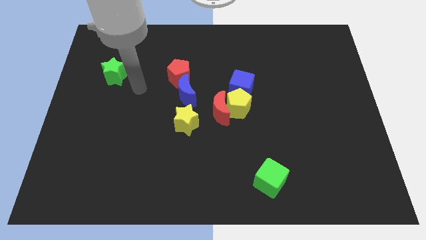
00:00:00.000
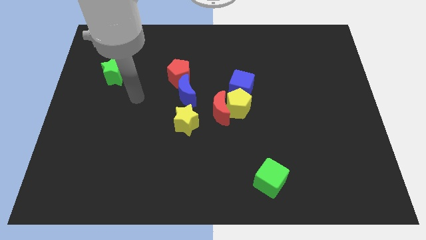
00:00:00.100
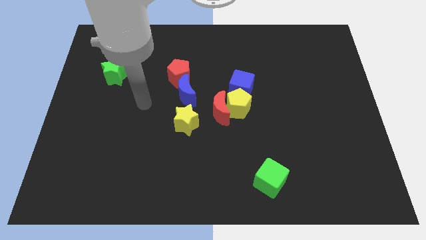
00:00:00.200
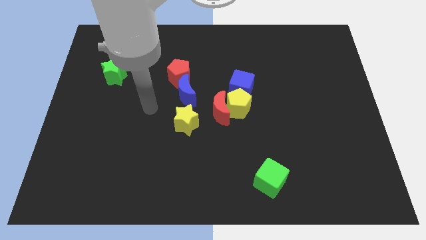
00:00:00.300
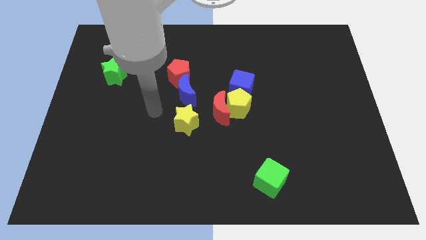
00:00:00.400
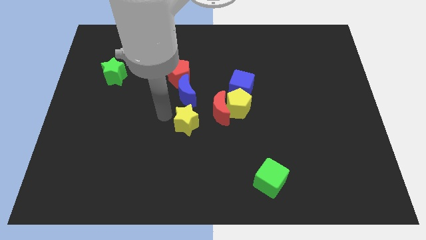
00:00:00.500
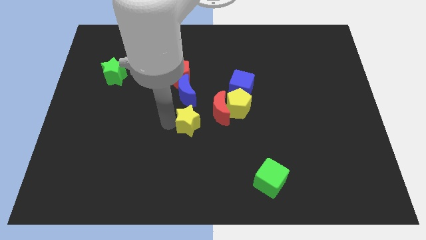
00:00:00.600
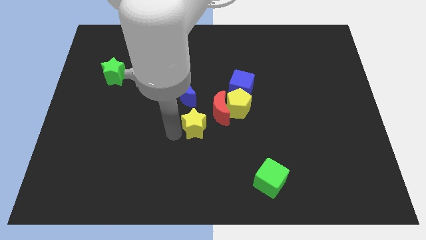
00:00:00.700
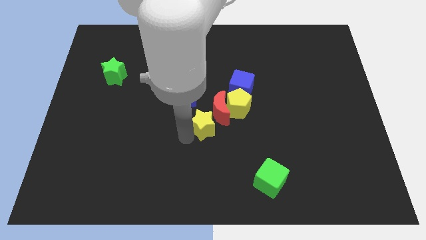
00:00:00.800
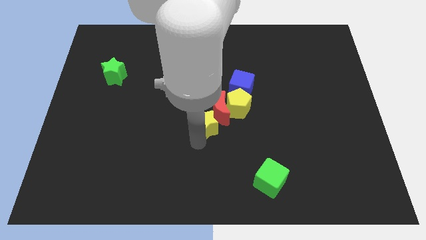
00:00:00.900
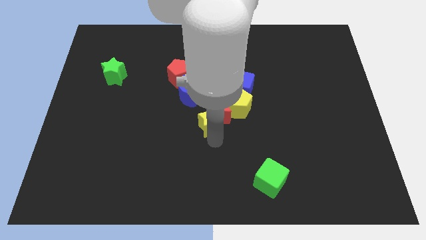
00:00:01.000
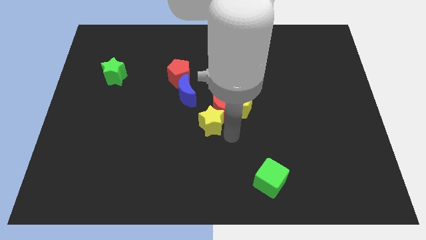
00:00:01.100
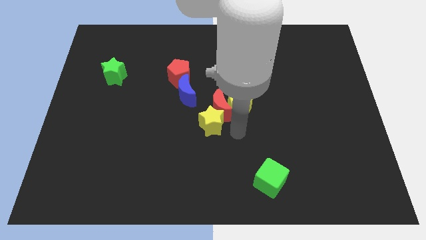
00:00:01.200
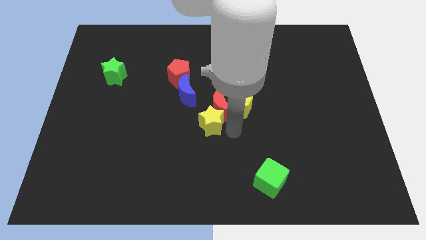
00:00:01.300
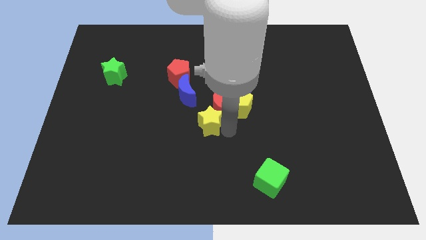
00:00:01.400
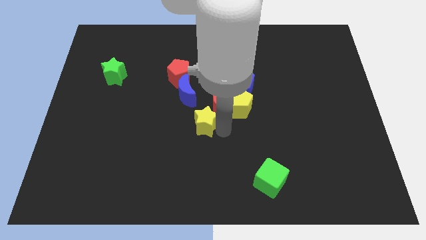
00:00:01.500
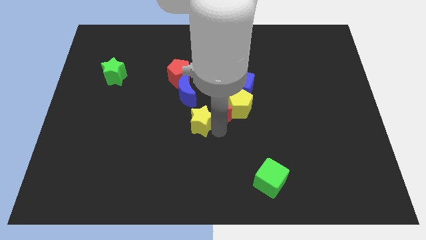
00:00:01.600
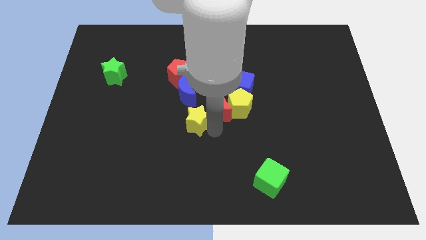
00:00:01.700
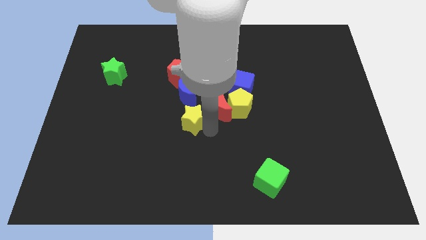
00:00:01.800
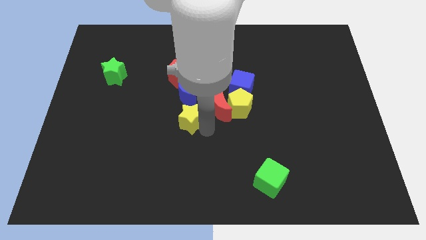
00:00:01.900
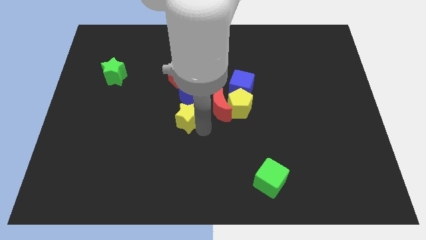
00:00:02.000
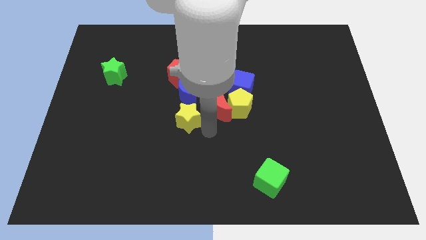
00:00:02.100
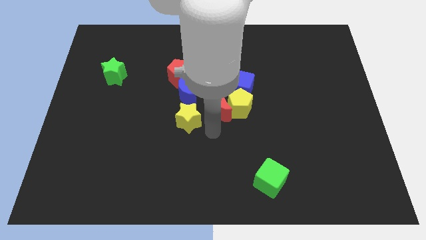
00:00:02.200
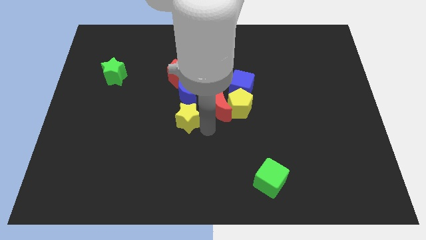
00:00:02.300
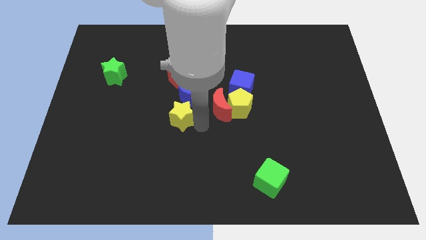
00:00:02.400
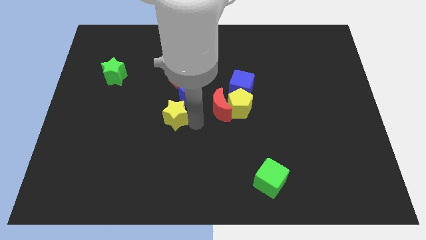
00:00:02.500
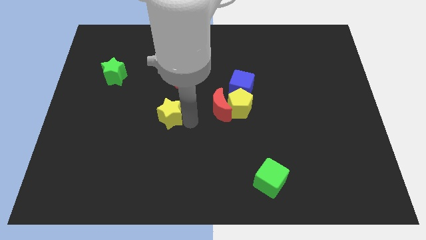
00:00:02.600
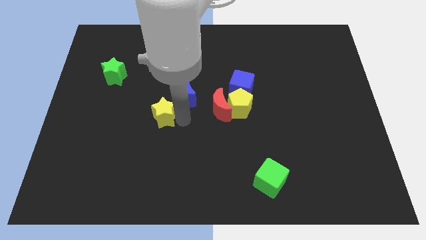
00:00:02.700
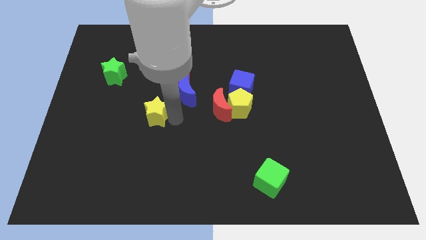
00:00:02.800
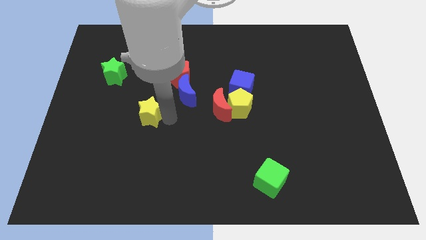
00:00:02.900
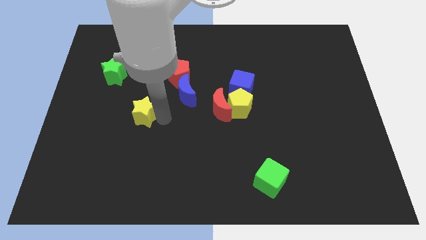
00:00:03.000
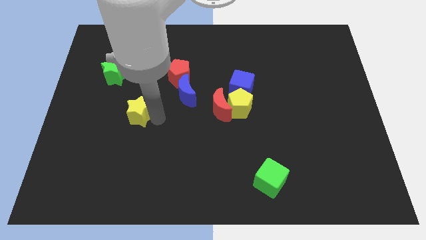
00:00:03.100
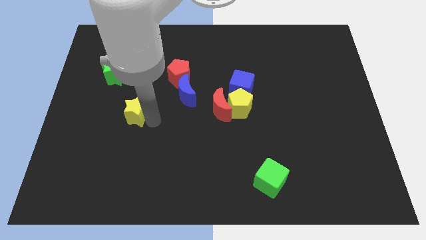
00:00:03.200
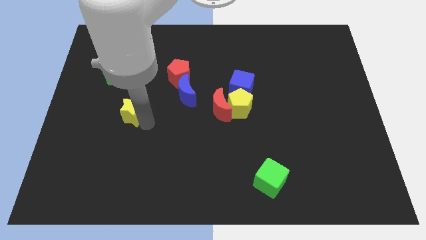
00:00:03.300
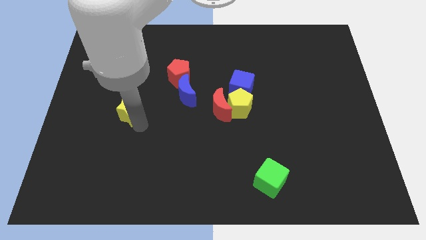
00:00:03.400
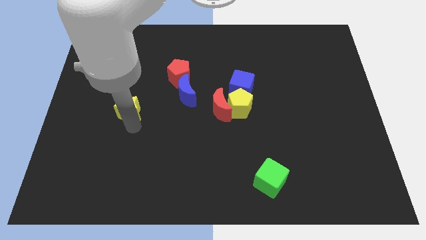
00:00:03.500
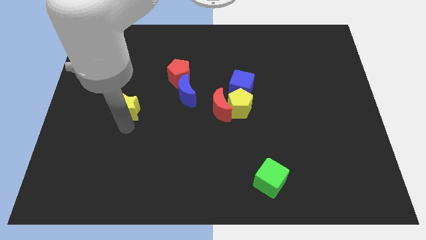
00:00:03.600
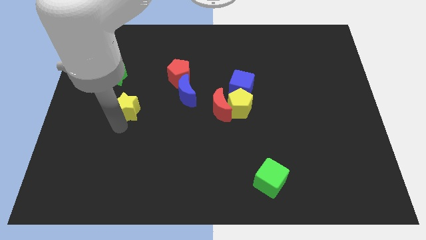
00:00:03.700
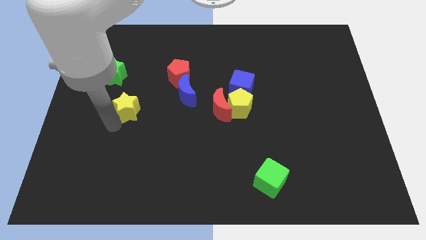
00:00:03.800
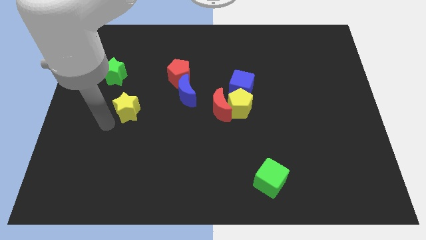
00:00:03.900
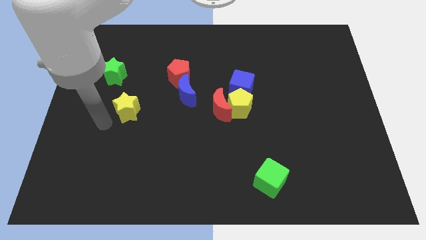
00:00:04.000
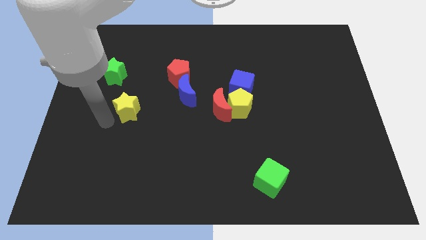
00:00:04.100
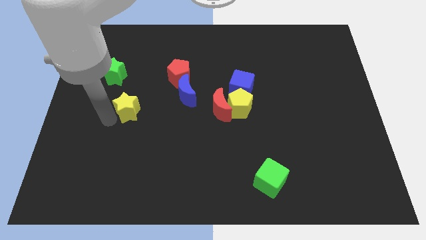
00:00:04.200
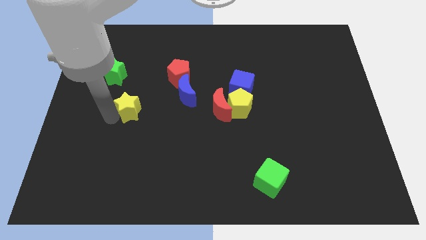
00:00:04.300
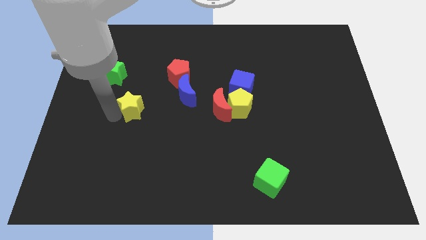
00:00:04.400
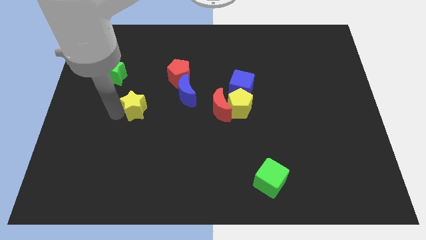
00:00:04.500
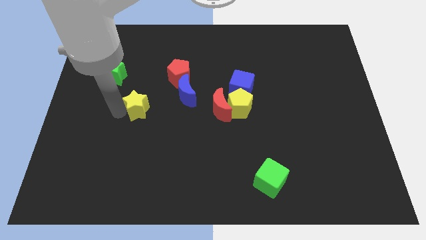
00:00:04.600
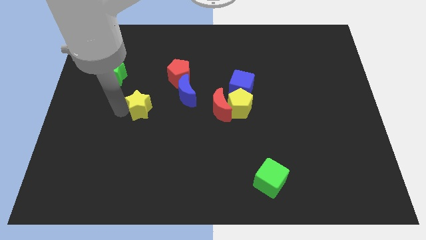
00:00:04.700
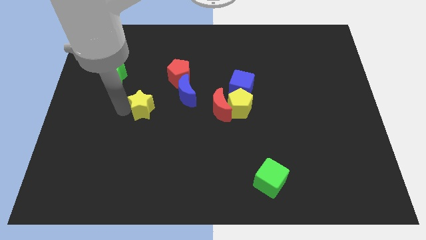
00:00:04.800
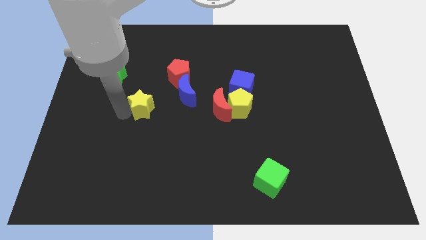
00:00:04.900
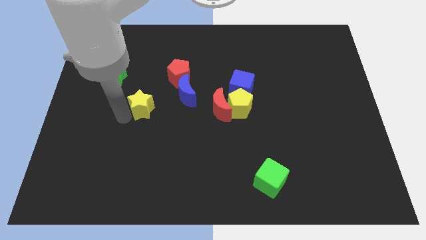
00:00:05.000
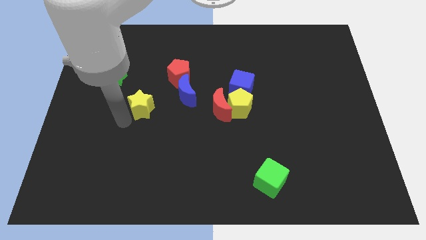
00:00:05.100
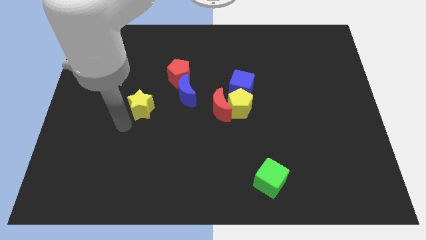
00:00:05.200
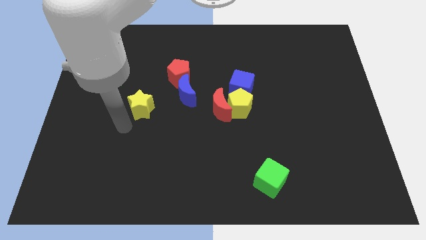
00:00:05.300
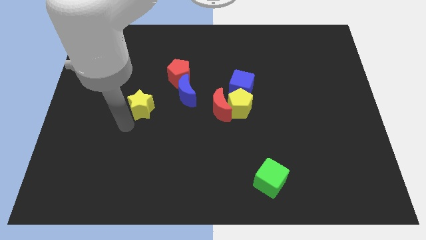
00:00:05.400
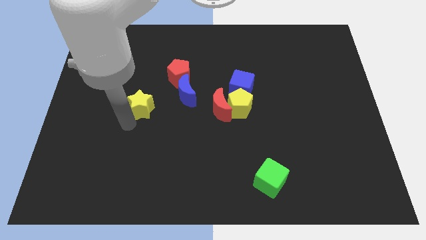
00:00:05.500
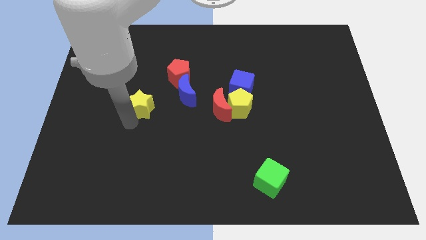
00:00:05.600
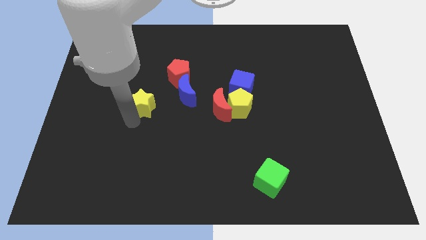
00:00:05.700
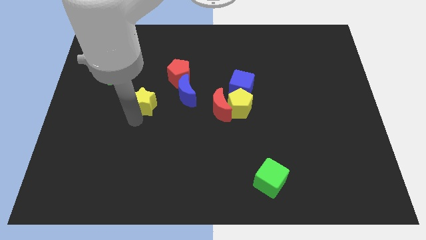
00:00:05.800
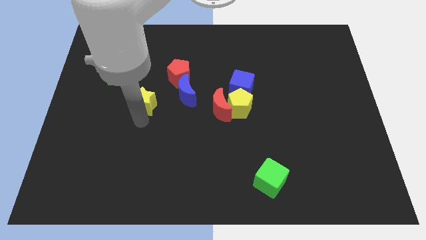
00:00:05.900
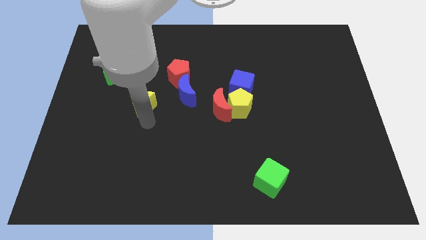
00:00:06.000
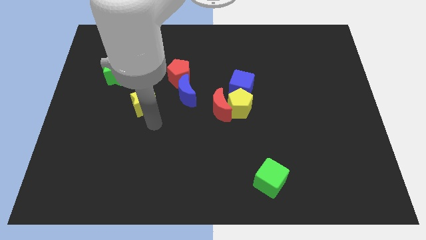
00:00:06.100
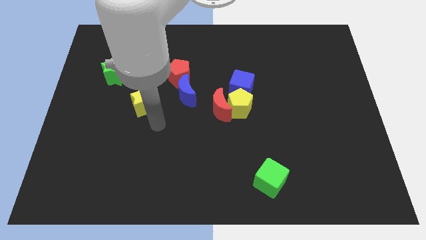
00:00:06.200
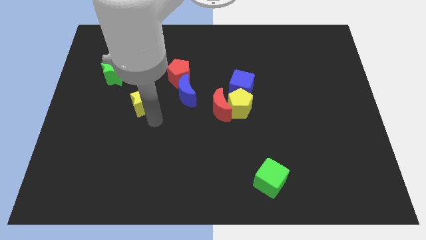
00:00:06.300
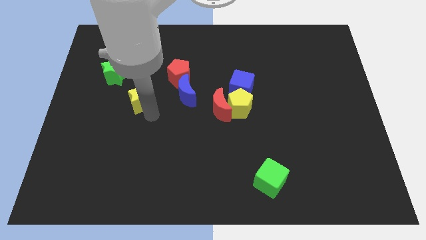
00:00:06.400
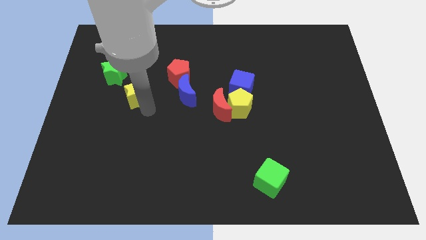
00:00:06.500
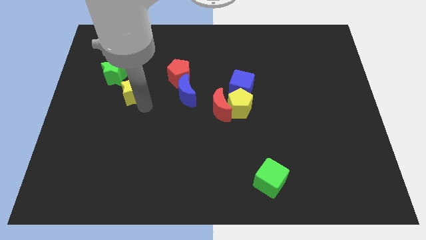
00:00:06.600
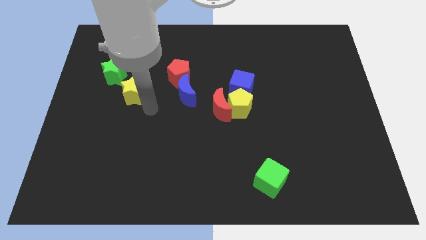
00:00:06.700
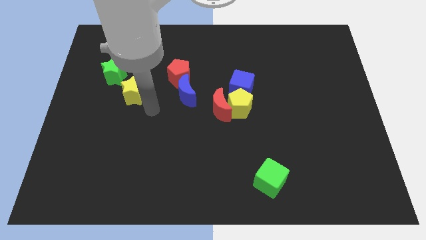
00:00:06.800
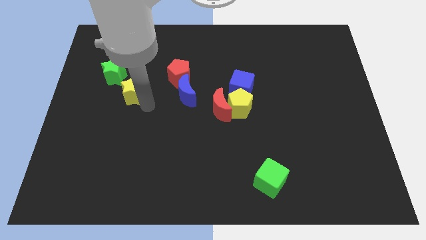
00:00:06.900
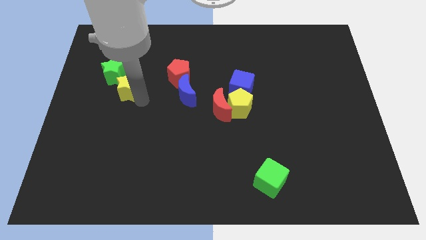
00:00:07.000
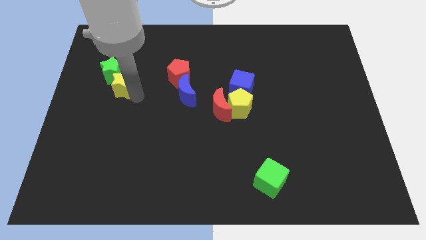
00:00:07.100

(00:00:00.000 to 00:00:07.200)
push the yellow star close to the green star
